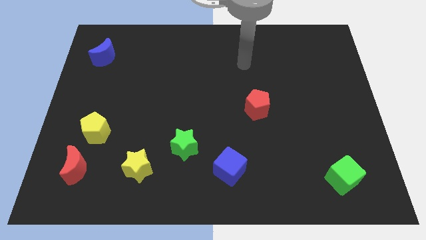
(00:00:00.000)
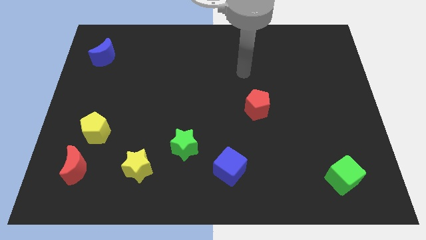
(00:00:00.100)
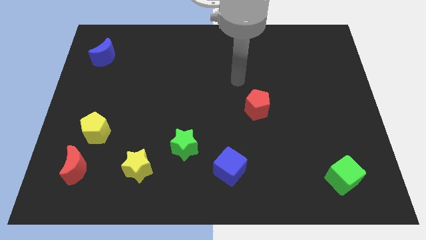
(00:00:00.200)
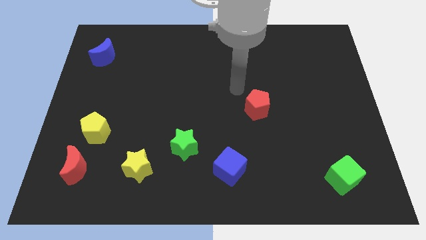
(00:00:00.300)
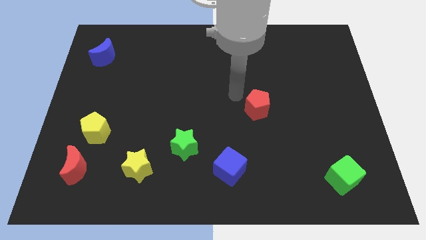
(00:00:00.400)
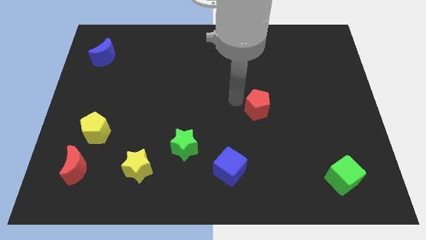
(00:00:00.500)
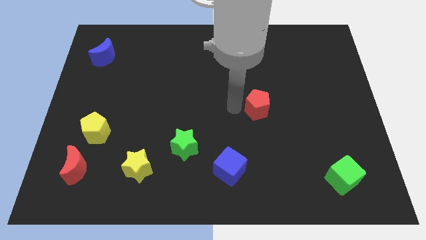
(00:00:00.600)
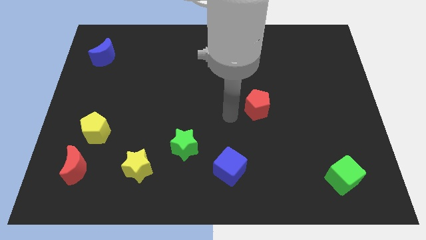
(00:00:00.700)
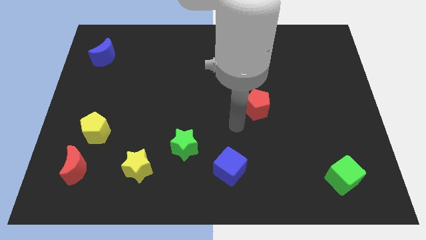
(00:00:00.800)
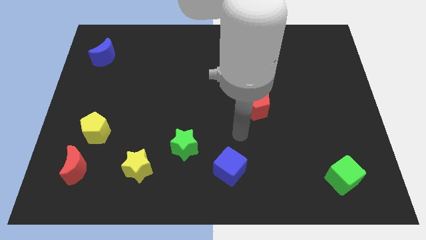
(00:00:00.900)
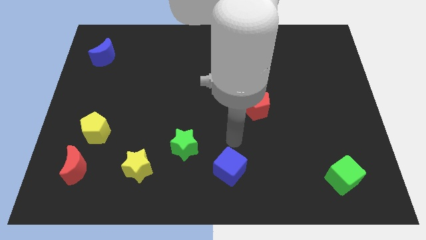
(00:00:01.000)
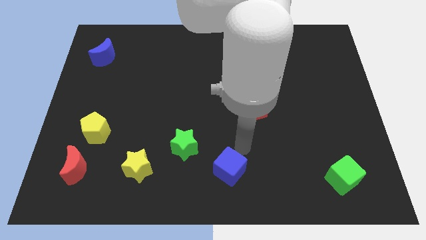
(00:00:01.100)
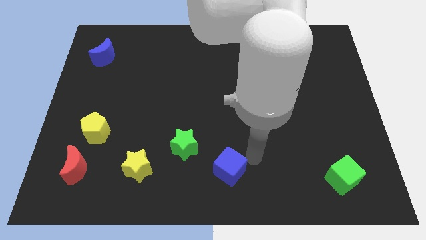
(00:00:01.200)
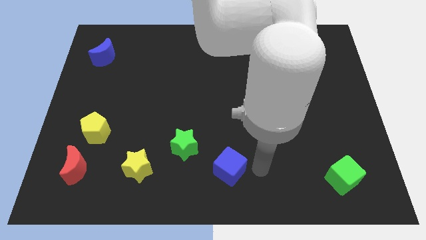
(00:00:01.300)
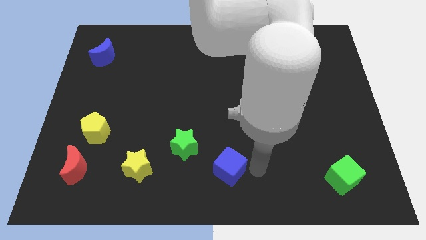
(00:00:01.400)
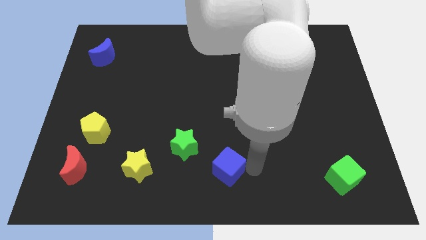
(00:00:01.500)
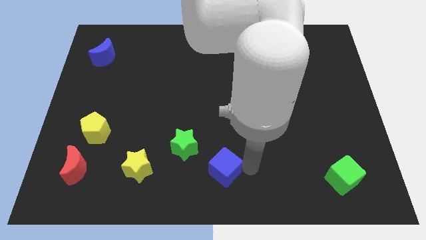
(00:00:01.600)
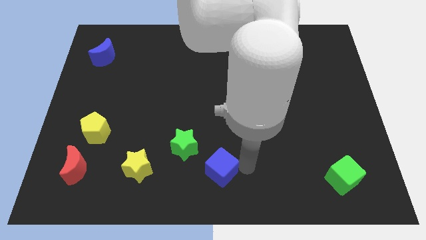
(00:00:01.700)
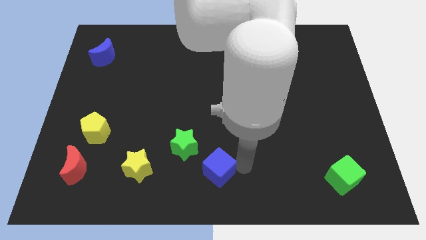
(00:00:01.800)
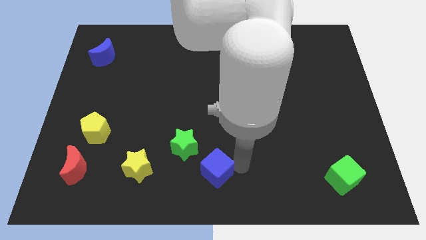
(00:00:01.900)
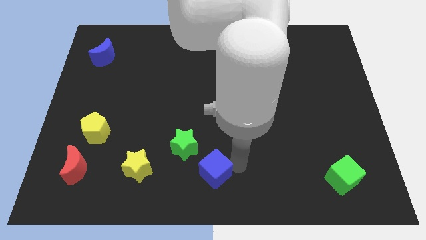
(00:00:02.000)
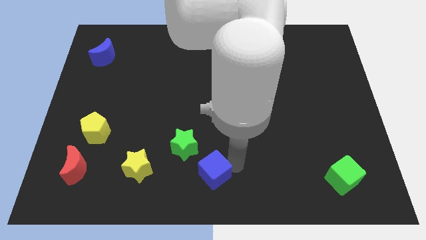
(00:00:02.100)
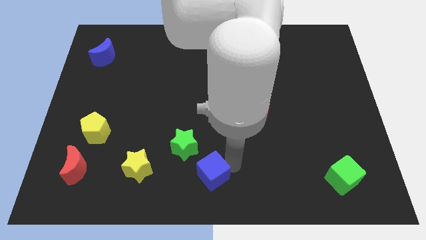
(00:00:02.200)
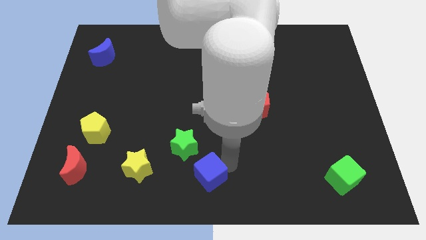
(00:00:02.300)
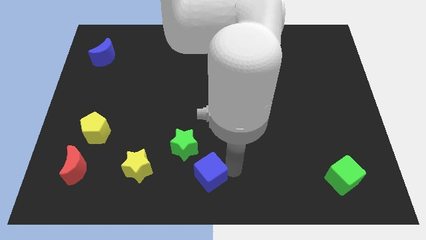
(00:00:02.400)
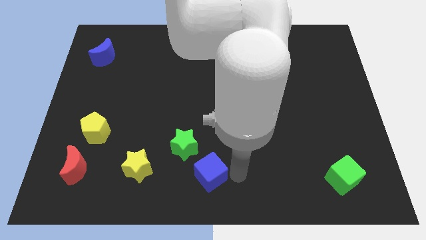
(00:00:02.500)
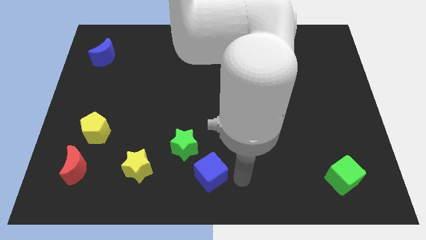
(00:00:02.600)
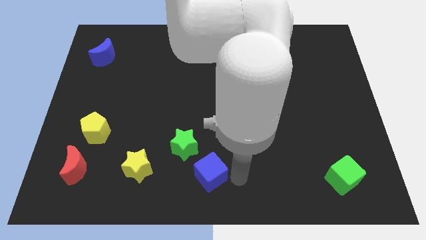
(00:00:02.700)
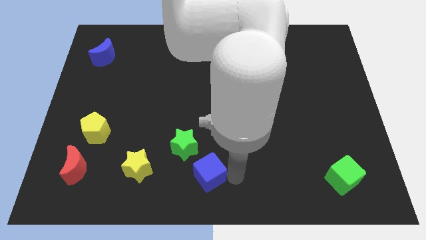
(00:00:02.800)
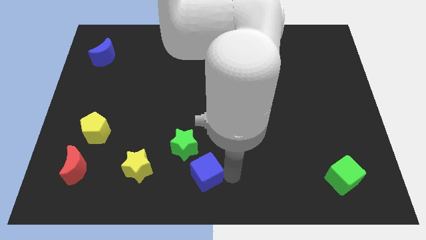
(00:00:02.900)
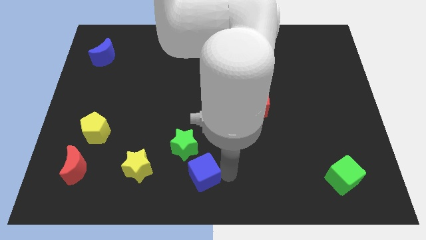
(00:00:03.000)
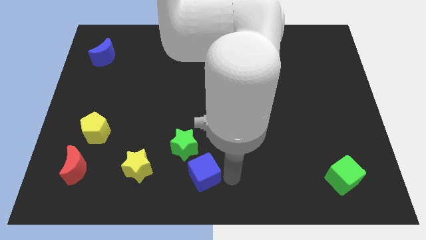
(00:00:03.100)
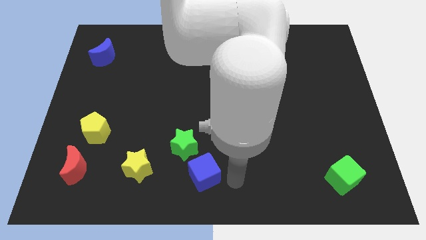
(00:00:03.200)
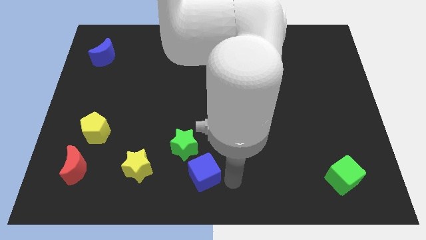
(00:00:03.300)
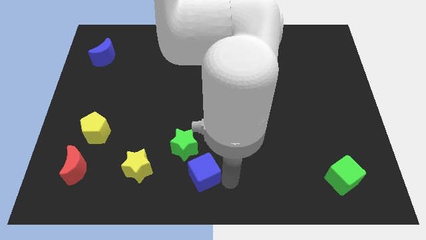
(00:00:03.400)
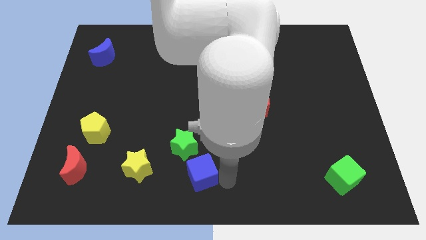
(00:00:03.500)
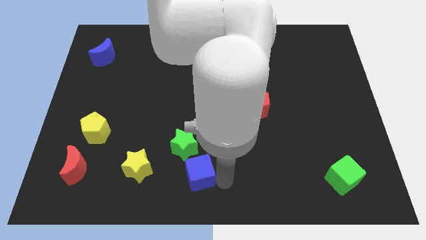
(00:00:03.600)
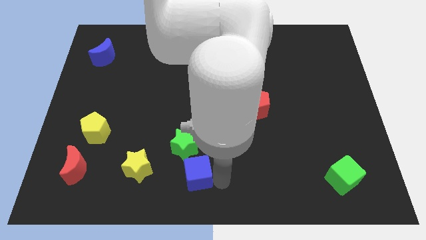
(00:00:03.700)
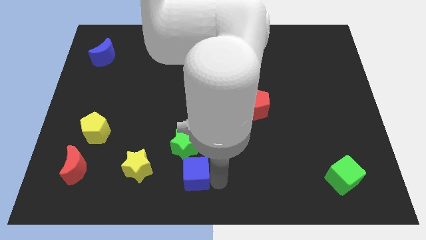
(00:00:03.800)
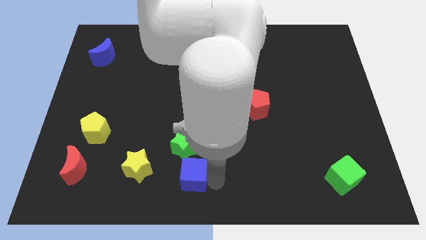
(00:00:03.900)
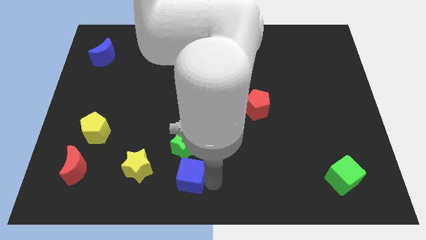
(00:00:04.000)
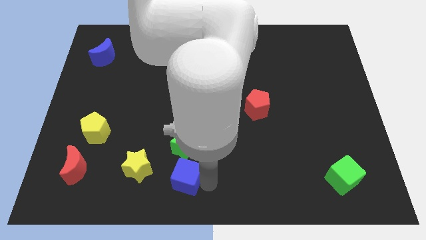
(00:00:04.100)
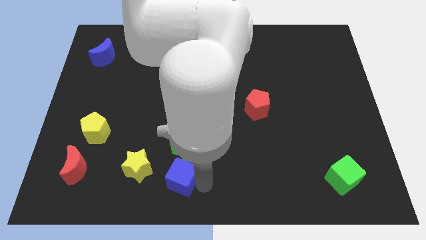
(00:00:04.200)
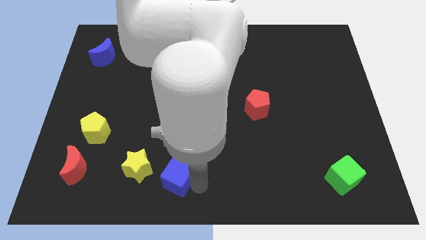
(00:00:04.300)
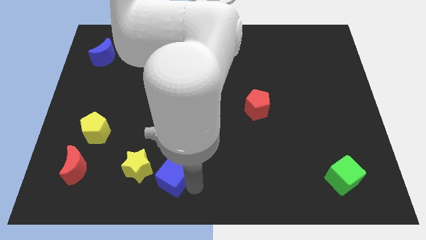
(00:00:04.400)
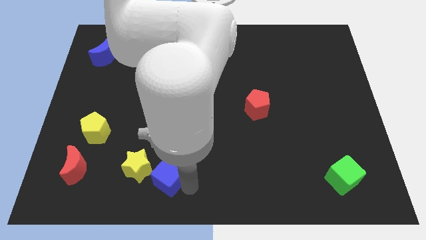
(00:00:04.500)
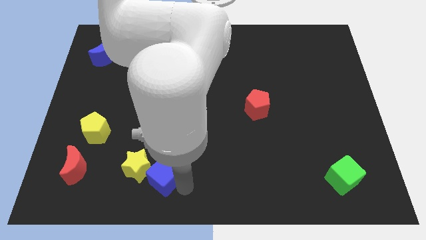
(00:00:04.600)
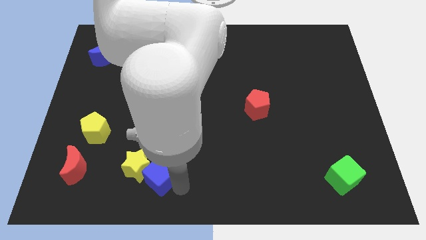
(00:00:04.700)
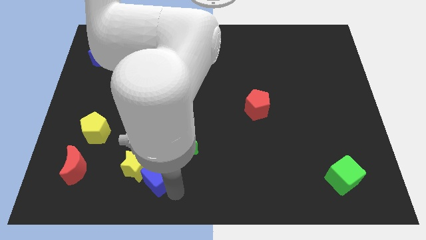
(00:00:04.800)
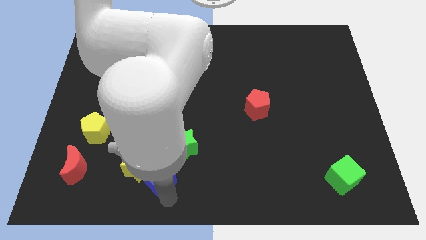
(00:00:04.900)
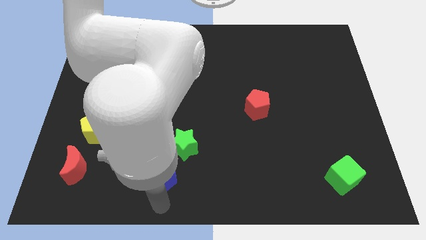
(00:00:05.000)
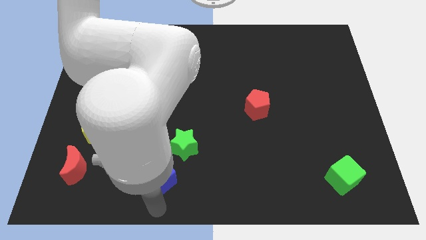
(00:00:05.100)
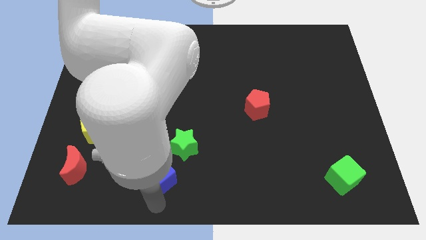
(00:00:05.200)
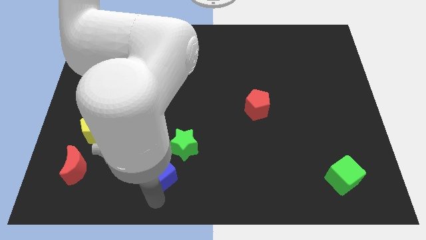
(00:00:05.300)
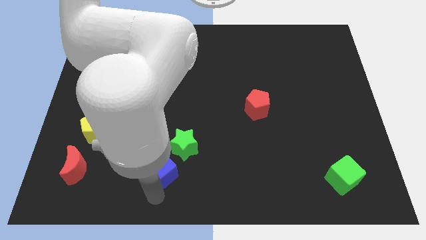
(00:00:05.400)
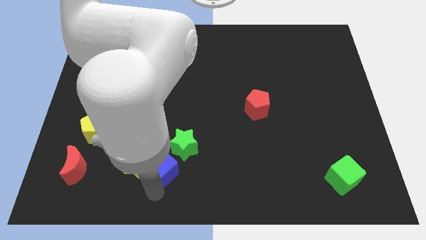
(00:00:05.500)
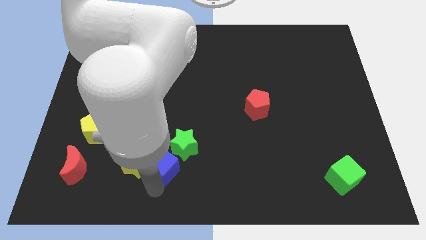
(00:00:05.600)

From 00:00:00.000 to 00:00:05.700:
put the blue cube diagonally up and to the right of the yellow star

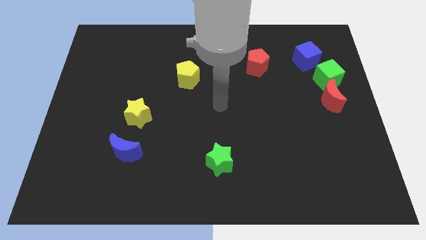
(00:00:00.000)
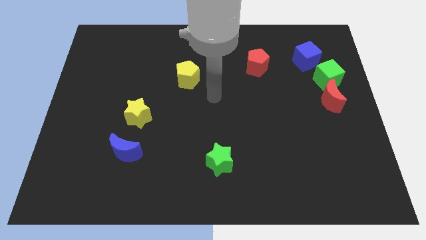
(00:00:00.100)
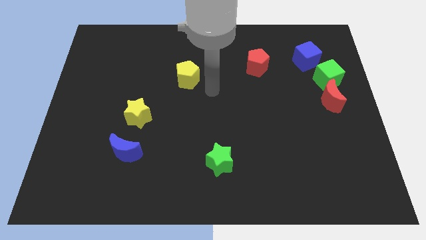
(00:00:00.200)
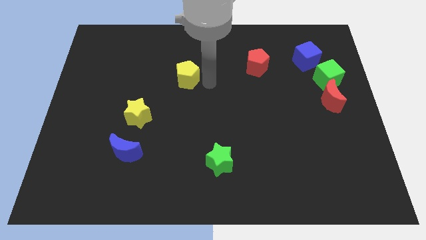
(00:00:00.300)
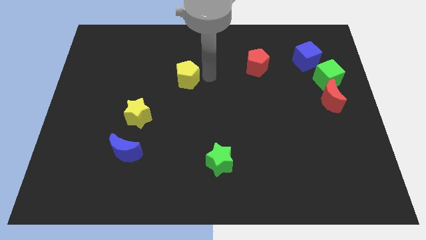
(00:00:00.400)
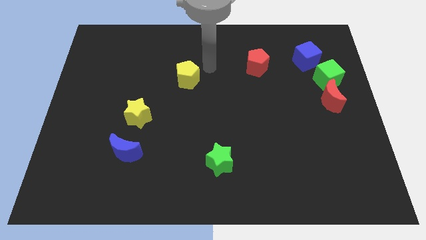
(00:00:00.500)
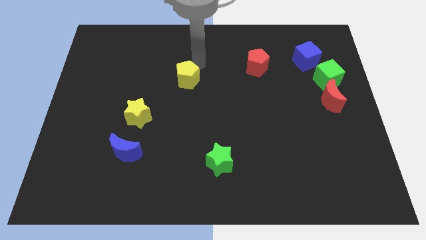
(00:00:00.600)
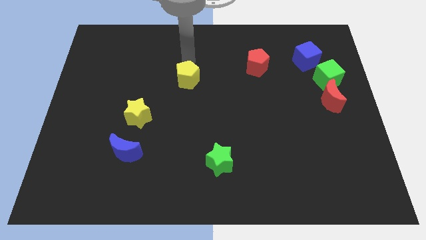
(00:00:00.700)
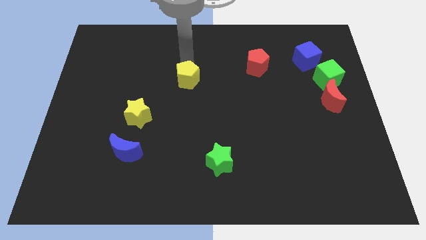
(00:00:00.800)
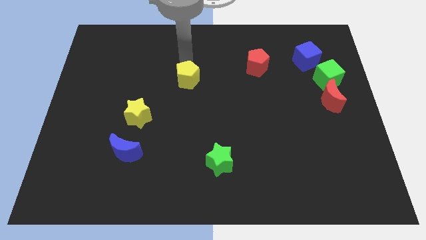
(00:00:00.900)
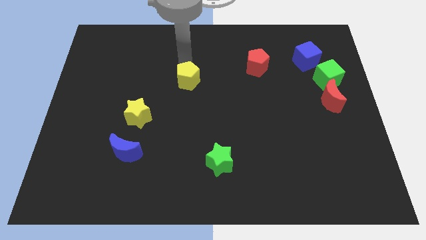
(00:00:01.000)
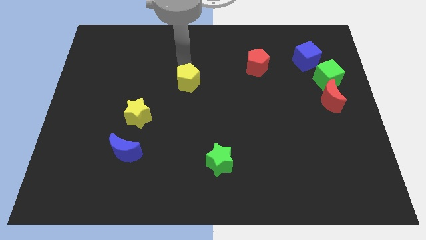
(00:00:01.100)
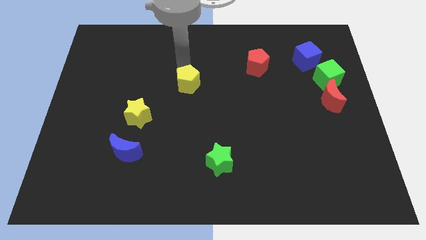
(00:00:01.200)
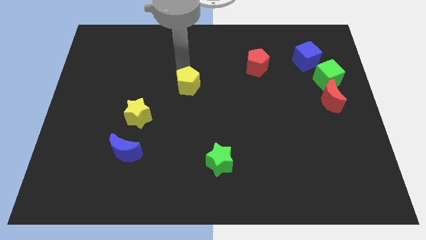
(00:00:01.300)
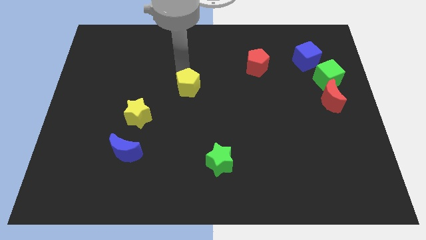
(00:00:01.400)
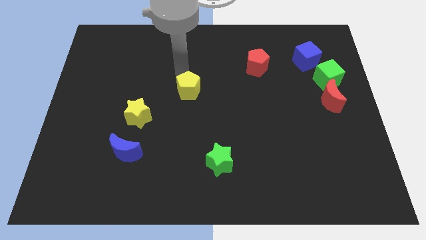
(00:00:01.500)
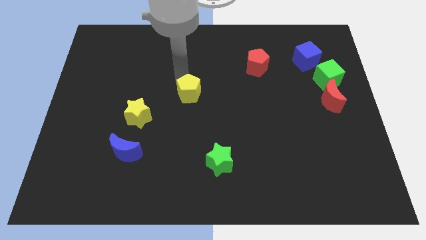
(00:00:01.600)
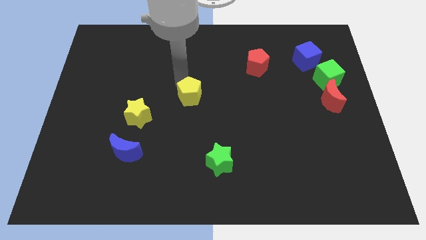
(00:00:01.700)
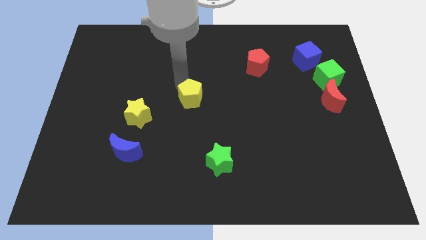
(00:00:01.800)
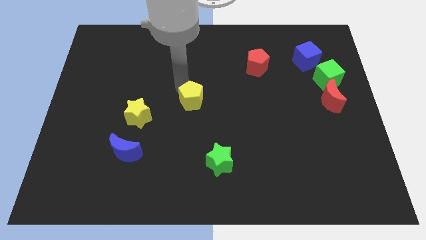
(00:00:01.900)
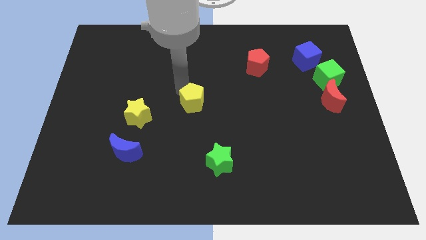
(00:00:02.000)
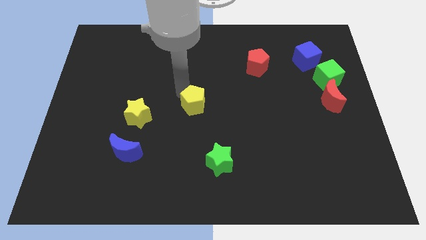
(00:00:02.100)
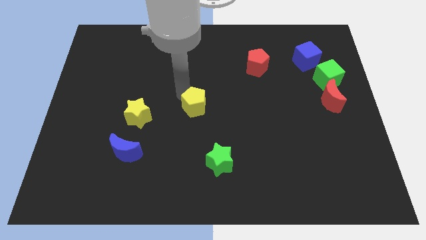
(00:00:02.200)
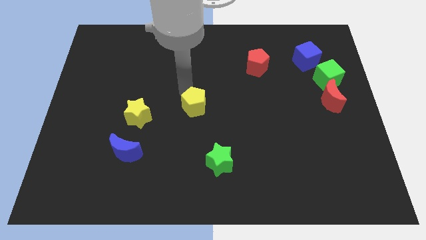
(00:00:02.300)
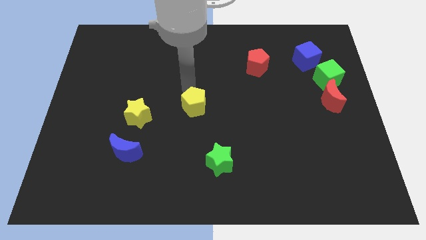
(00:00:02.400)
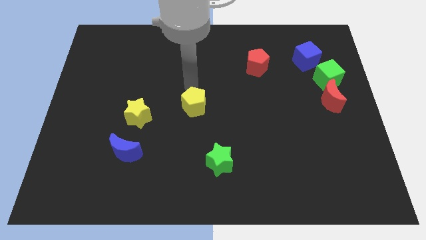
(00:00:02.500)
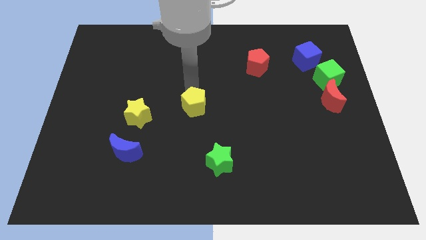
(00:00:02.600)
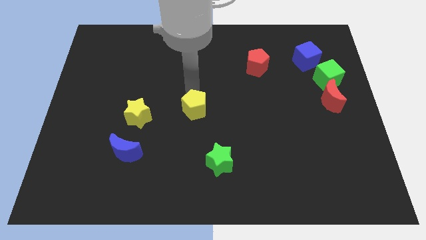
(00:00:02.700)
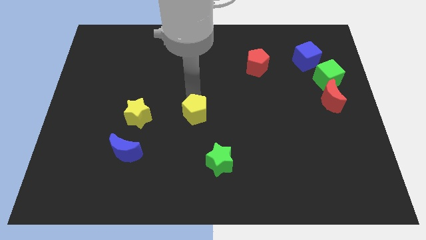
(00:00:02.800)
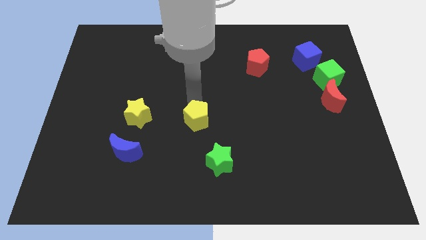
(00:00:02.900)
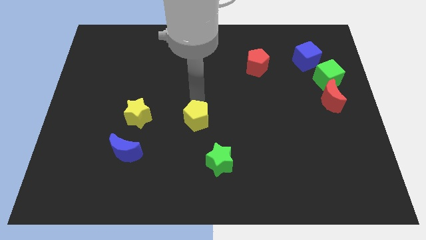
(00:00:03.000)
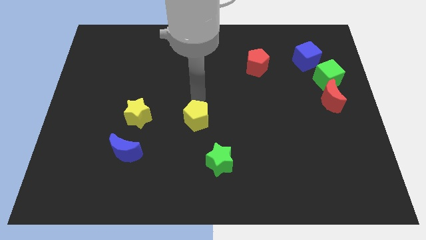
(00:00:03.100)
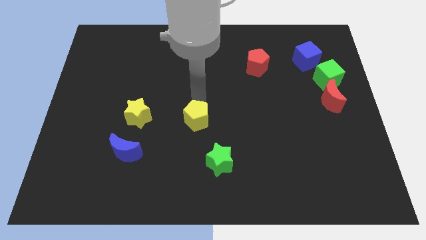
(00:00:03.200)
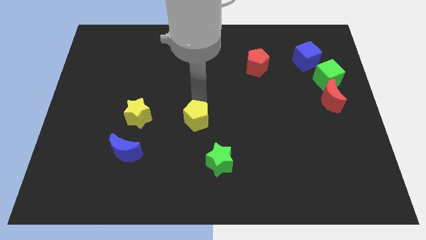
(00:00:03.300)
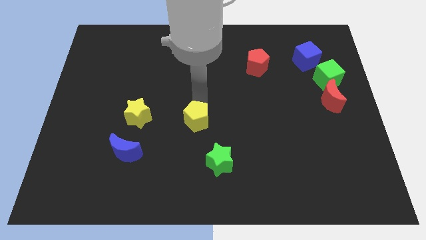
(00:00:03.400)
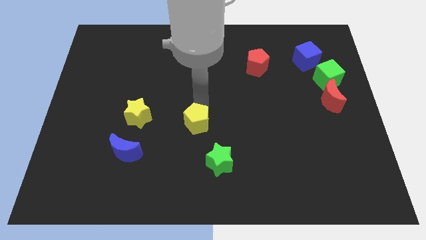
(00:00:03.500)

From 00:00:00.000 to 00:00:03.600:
put the yellow pentagon to the top left side of the green star
